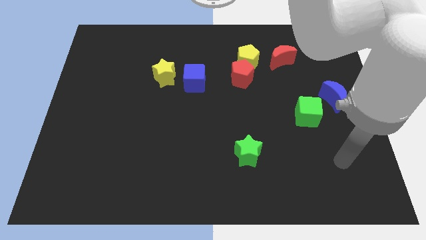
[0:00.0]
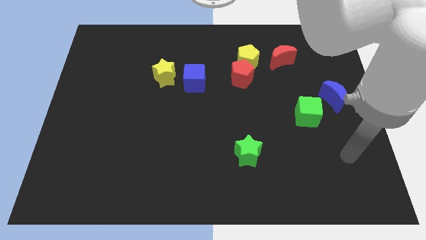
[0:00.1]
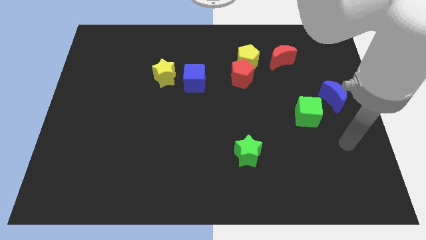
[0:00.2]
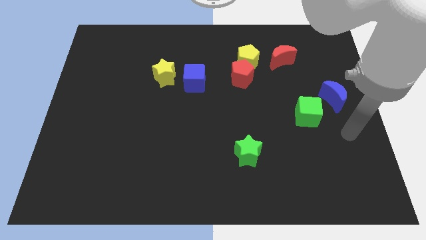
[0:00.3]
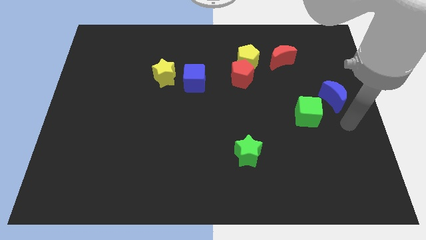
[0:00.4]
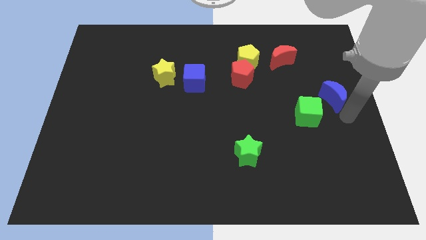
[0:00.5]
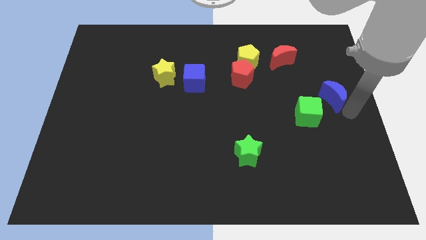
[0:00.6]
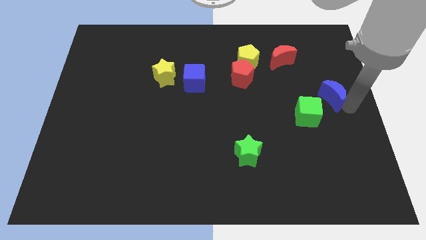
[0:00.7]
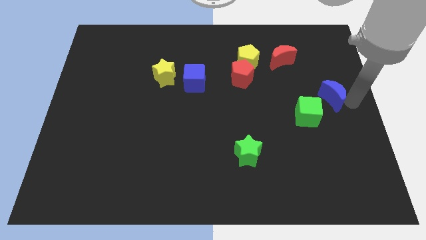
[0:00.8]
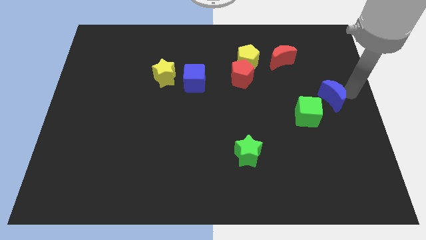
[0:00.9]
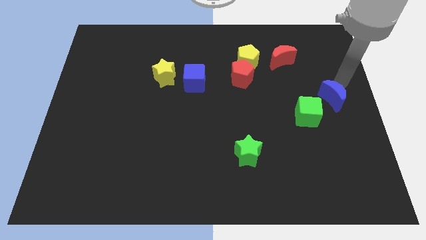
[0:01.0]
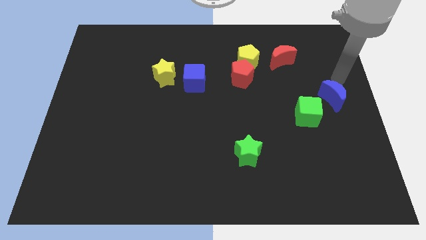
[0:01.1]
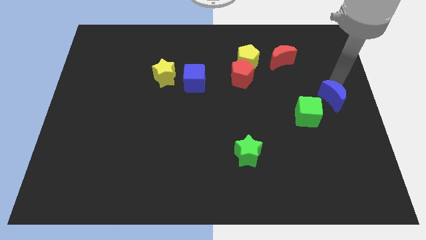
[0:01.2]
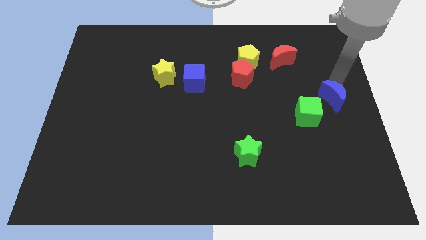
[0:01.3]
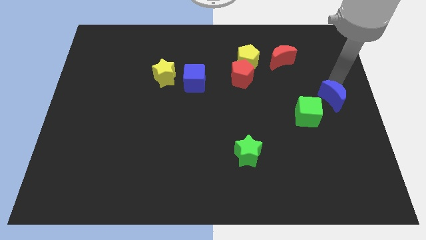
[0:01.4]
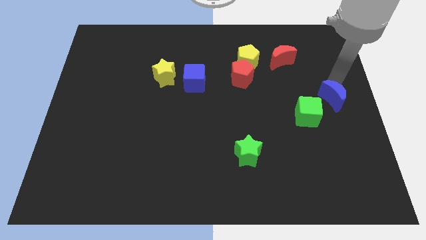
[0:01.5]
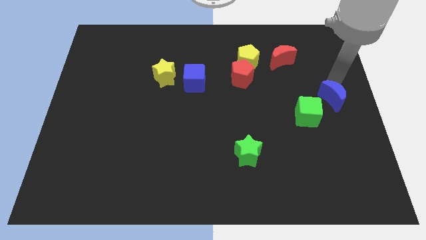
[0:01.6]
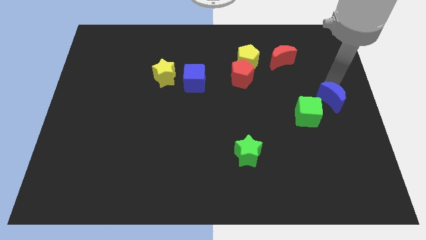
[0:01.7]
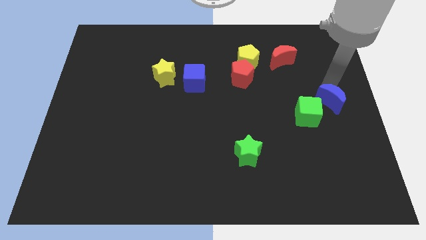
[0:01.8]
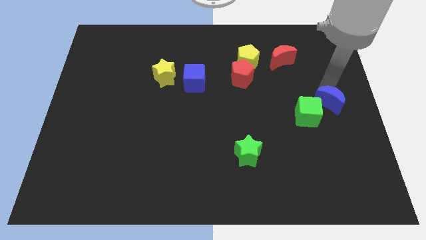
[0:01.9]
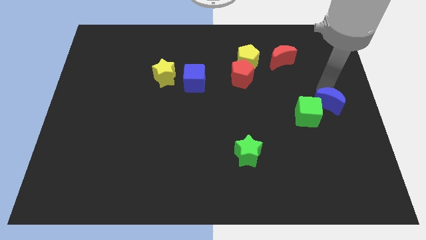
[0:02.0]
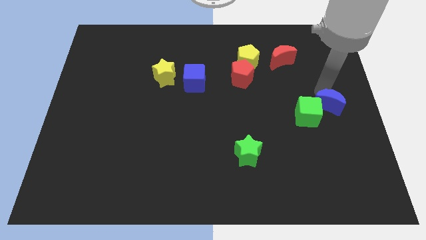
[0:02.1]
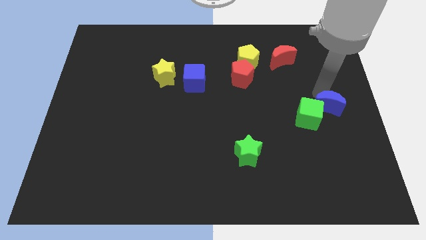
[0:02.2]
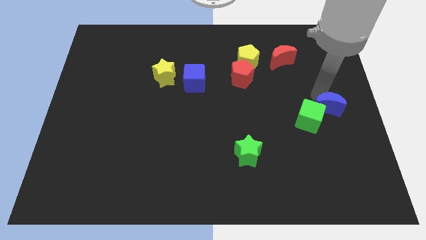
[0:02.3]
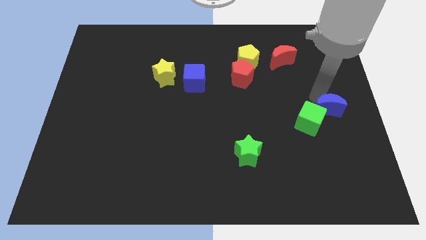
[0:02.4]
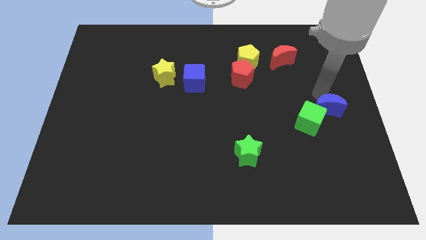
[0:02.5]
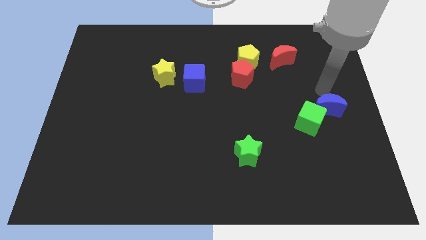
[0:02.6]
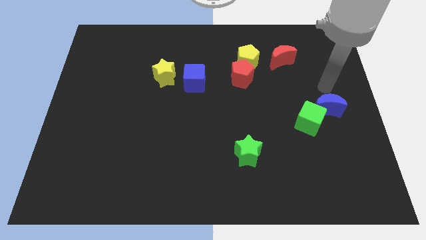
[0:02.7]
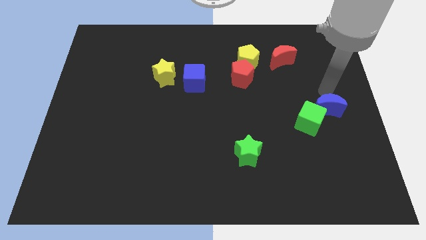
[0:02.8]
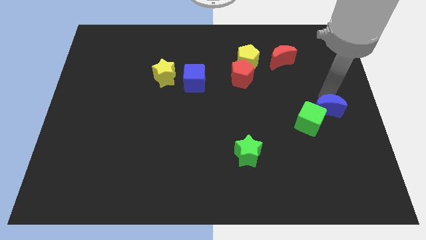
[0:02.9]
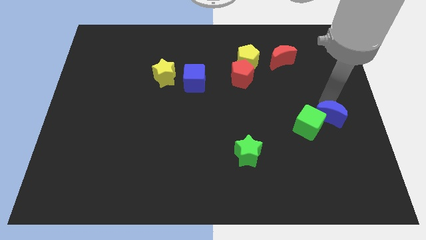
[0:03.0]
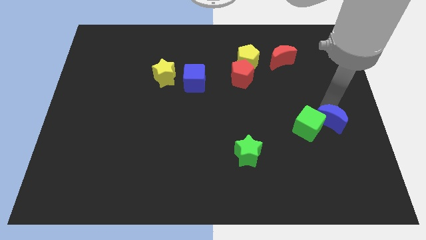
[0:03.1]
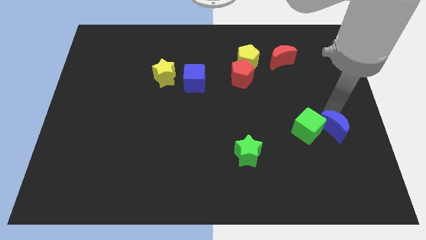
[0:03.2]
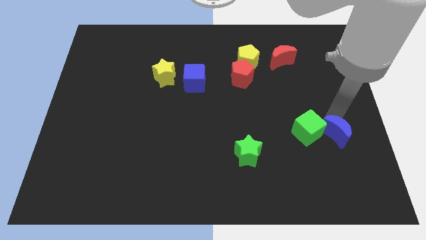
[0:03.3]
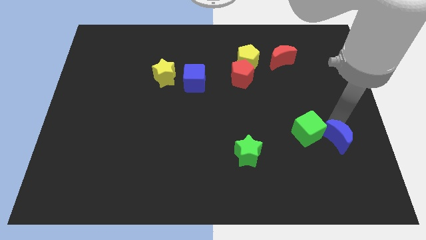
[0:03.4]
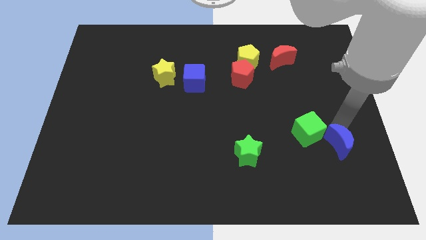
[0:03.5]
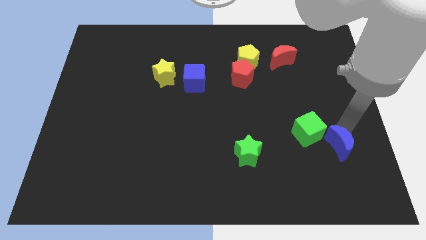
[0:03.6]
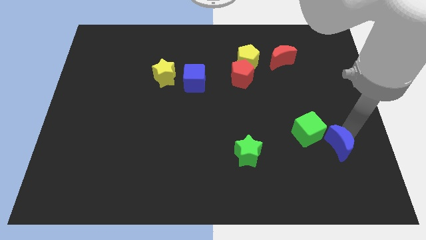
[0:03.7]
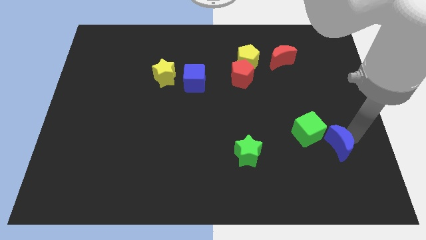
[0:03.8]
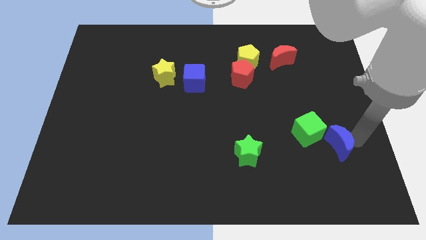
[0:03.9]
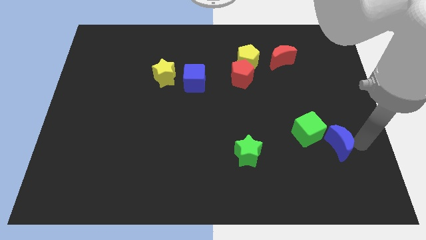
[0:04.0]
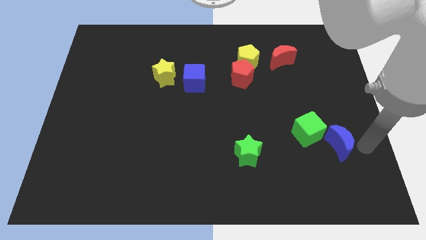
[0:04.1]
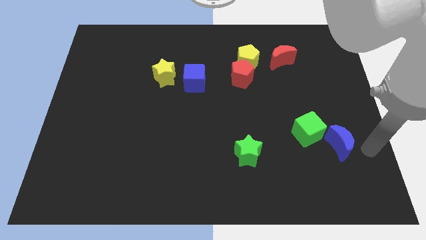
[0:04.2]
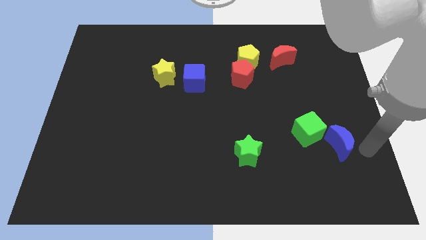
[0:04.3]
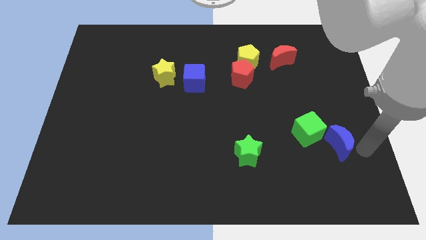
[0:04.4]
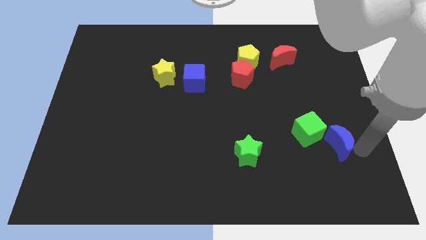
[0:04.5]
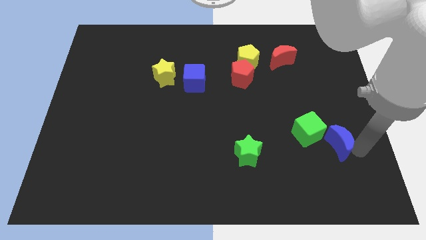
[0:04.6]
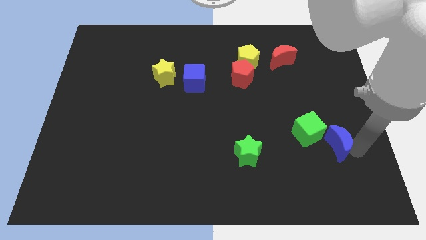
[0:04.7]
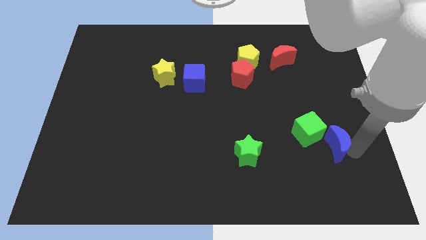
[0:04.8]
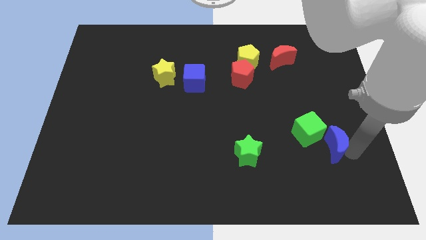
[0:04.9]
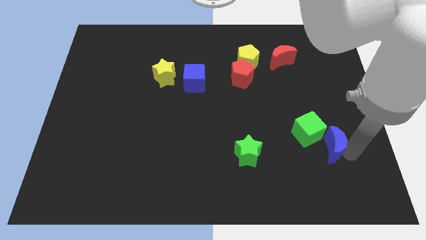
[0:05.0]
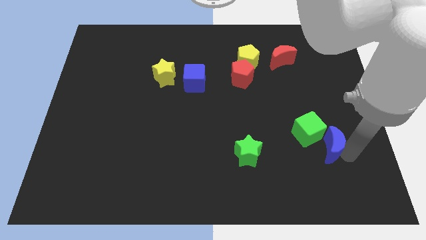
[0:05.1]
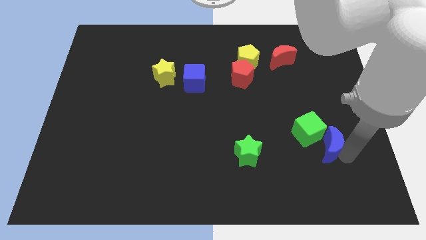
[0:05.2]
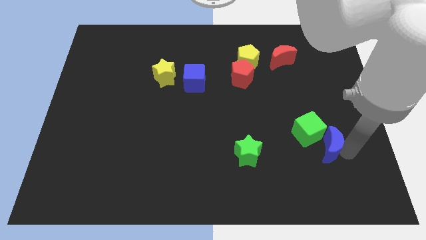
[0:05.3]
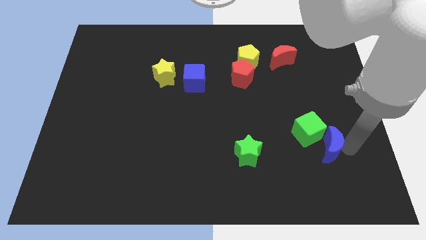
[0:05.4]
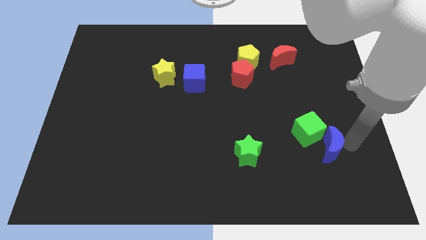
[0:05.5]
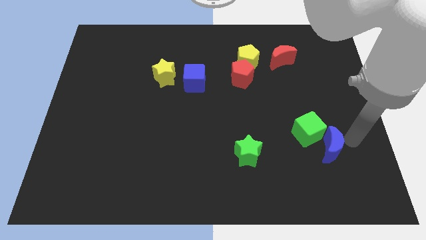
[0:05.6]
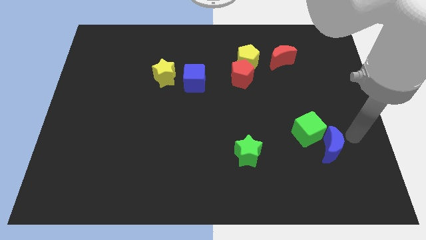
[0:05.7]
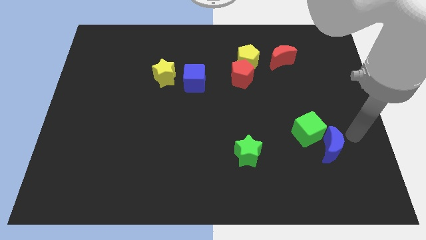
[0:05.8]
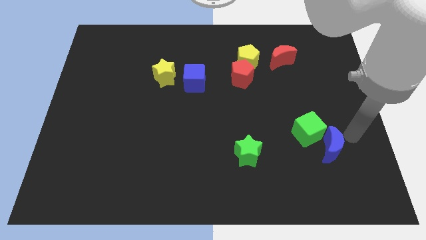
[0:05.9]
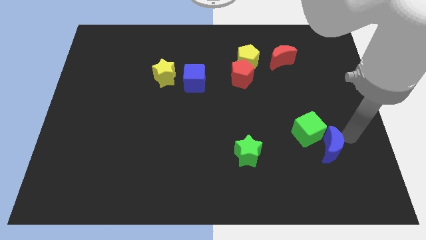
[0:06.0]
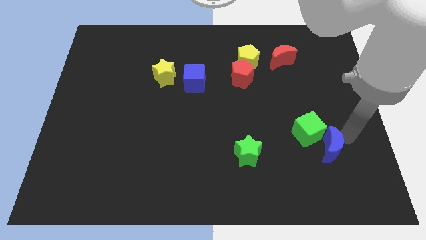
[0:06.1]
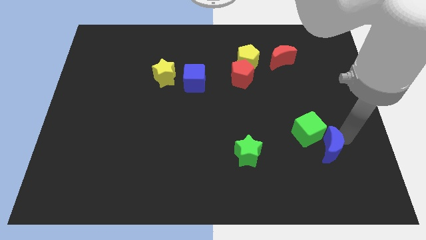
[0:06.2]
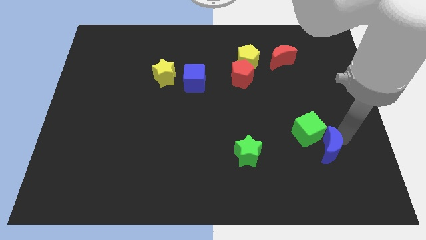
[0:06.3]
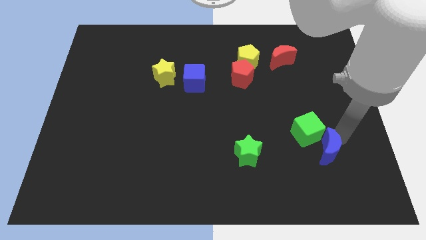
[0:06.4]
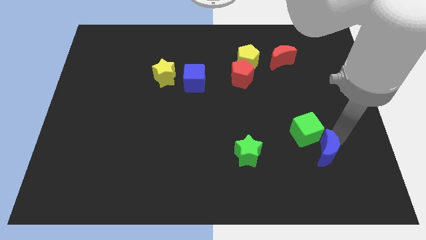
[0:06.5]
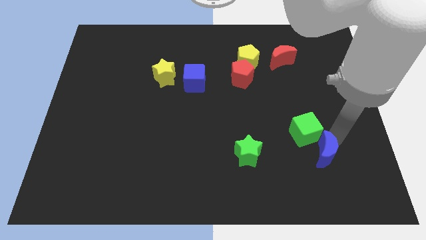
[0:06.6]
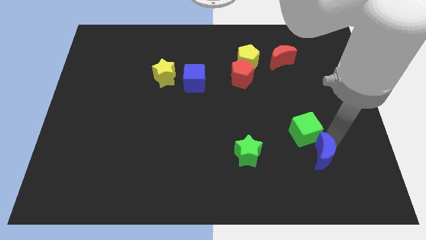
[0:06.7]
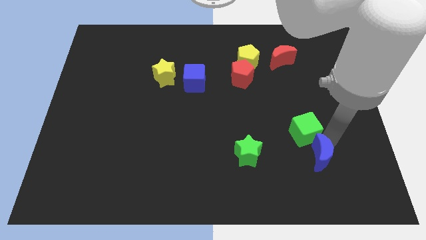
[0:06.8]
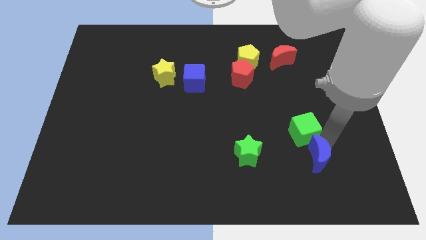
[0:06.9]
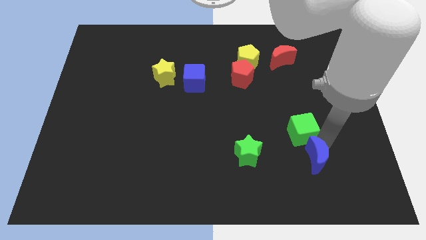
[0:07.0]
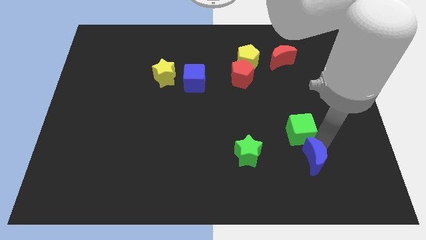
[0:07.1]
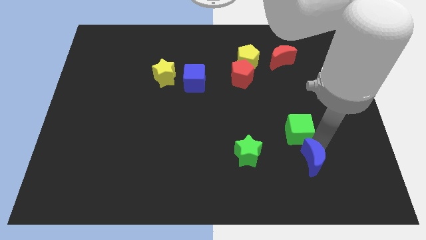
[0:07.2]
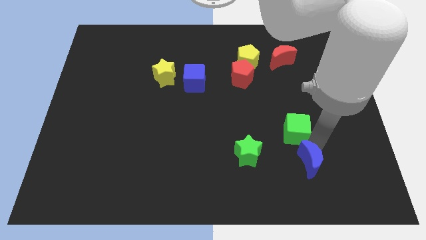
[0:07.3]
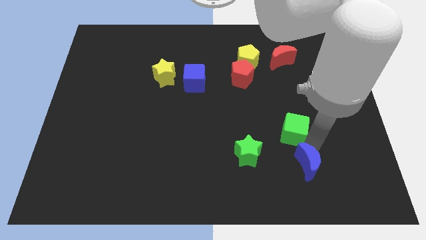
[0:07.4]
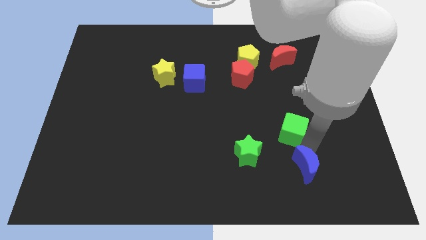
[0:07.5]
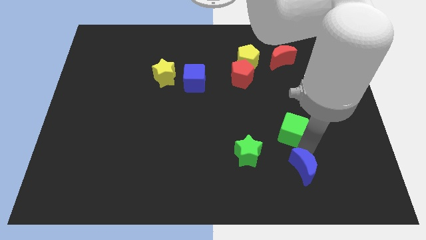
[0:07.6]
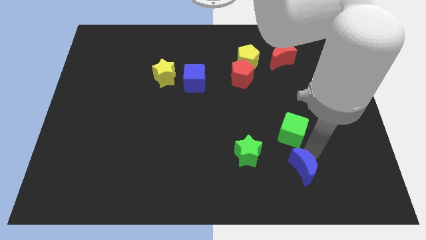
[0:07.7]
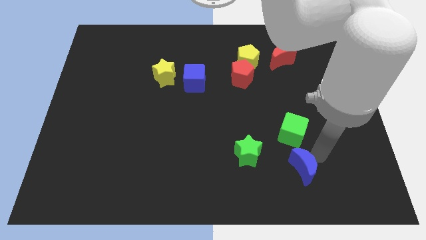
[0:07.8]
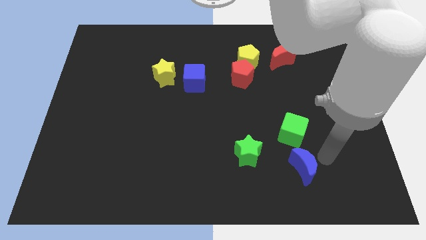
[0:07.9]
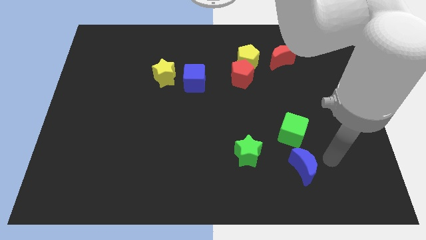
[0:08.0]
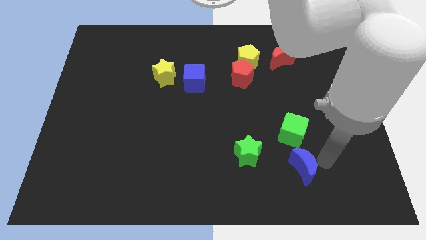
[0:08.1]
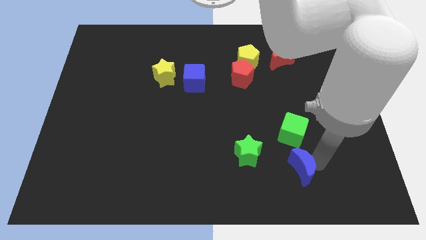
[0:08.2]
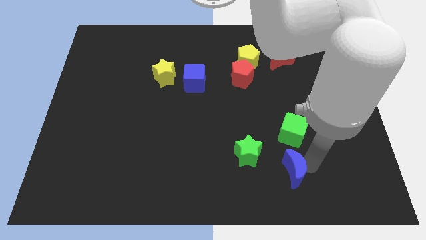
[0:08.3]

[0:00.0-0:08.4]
push the blue moon to the bottom right side of the green star
